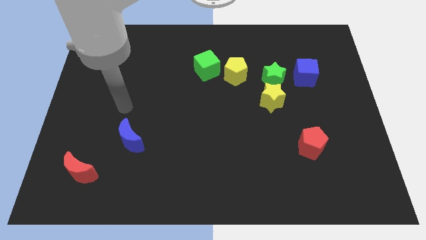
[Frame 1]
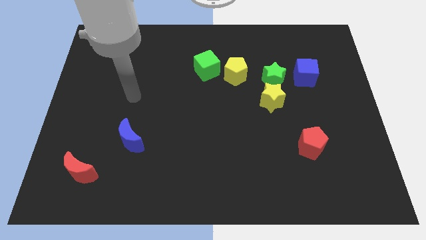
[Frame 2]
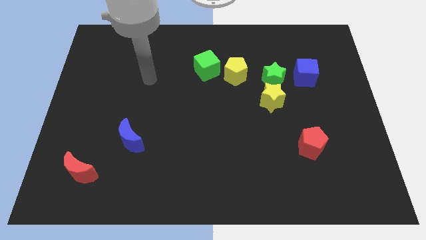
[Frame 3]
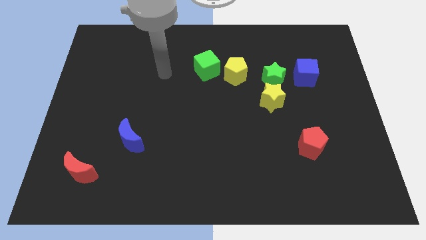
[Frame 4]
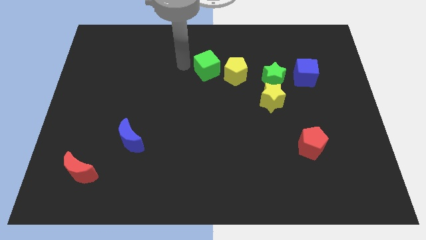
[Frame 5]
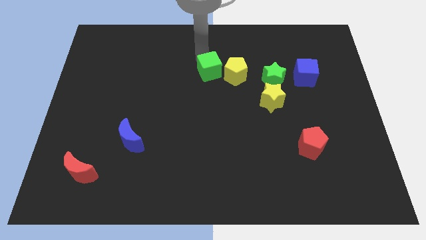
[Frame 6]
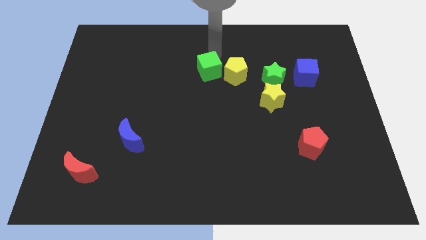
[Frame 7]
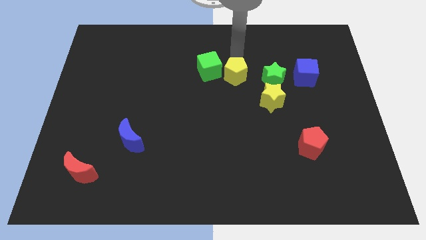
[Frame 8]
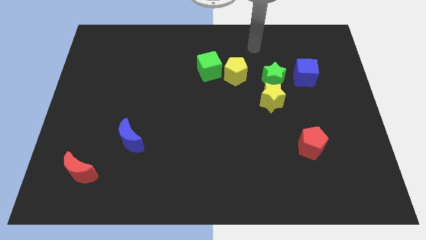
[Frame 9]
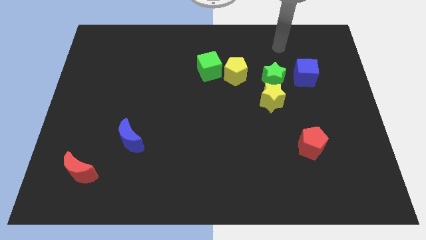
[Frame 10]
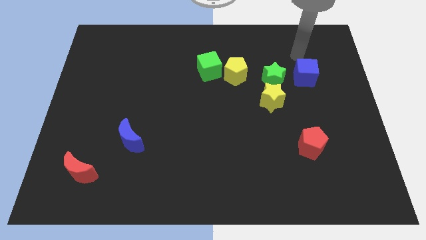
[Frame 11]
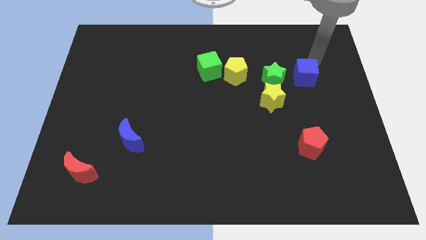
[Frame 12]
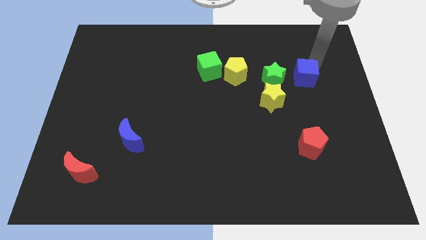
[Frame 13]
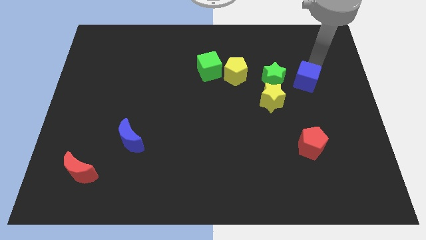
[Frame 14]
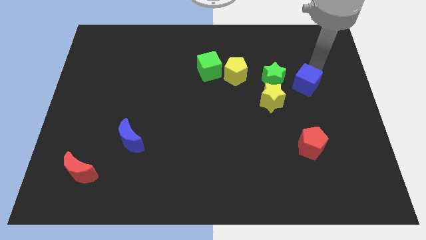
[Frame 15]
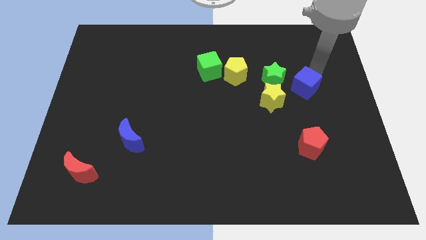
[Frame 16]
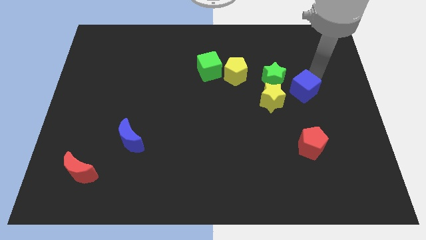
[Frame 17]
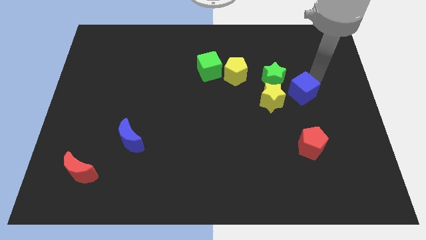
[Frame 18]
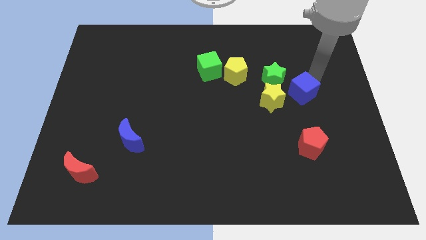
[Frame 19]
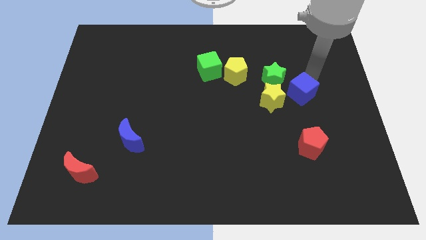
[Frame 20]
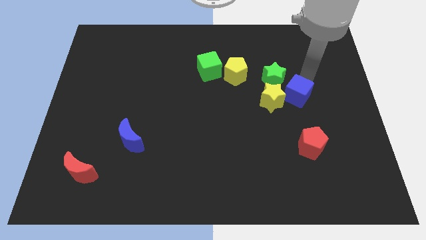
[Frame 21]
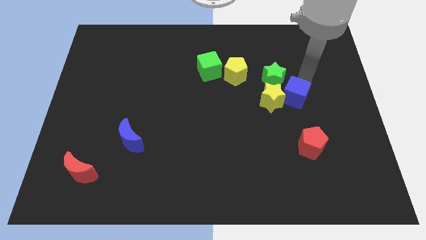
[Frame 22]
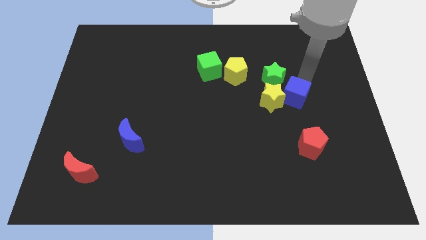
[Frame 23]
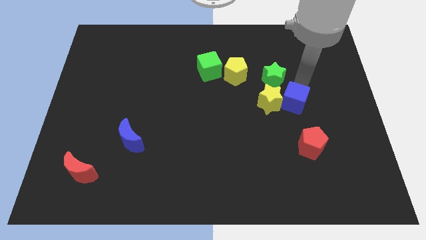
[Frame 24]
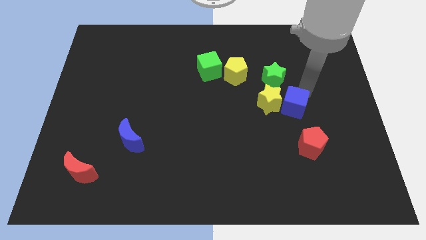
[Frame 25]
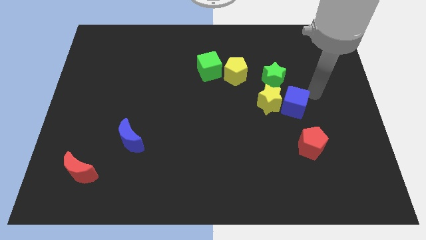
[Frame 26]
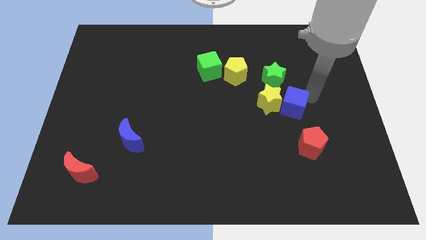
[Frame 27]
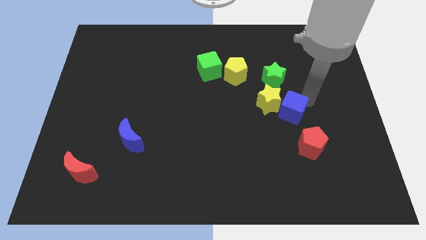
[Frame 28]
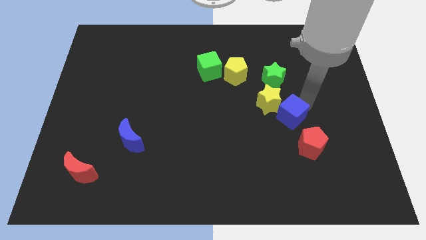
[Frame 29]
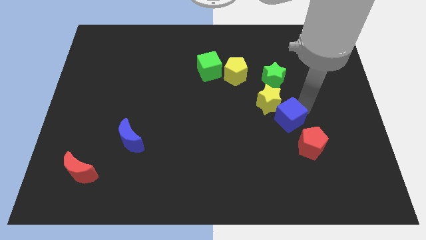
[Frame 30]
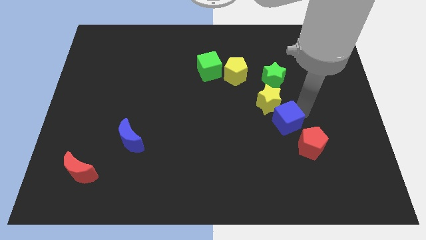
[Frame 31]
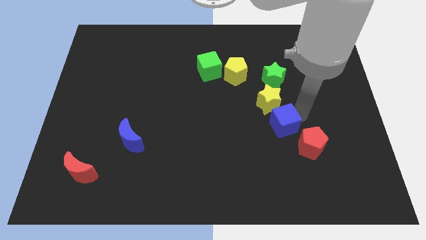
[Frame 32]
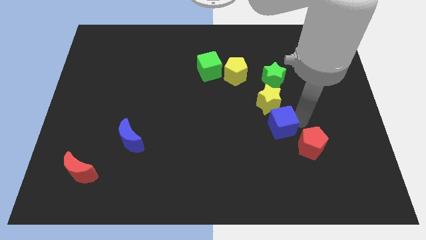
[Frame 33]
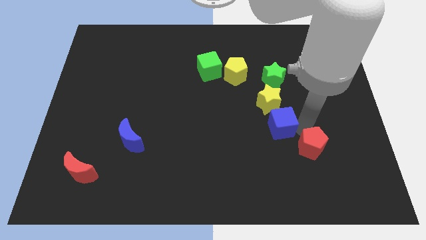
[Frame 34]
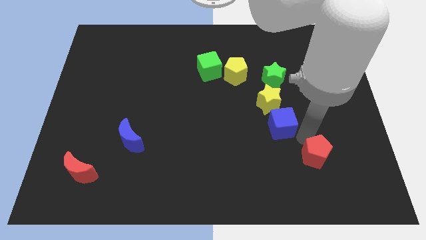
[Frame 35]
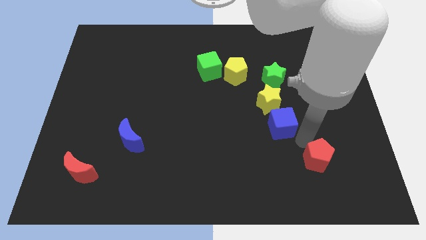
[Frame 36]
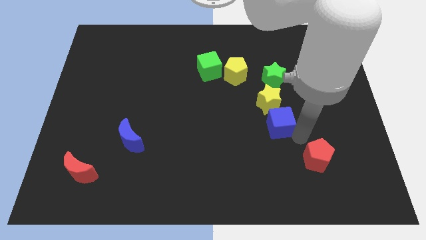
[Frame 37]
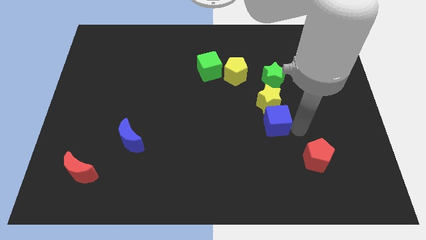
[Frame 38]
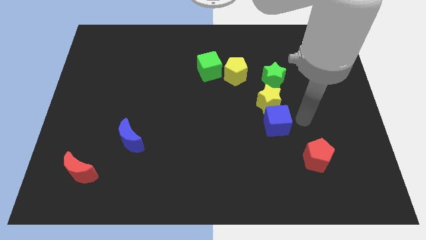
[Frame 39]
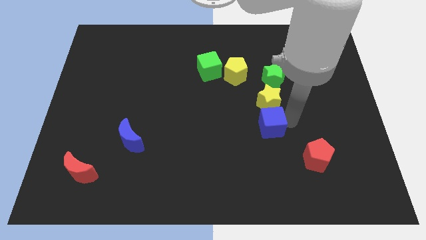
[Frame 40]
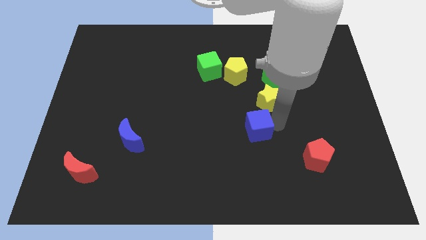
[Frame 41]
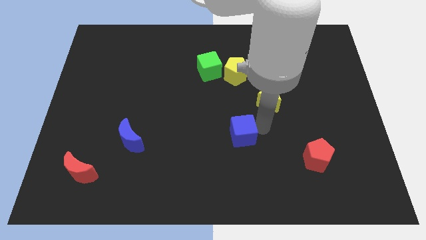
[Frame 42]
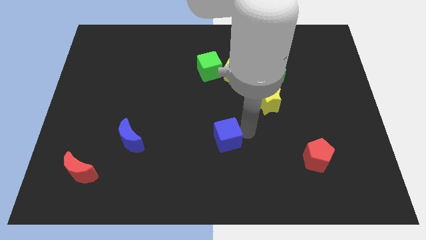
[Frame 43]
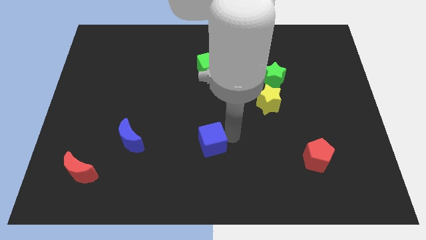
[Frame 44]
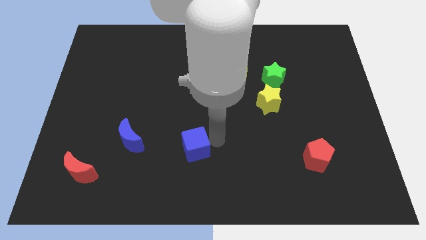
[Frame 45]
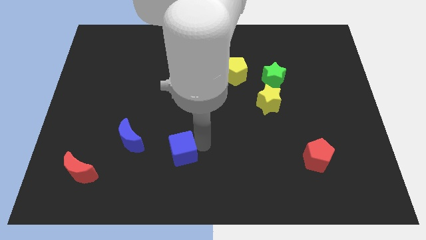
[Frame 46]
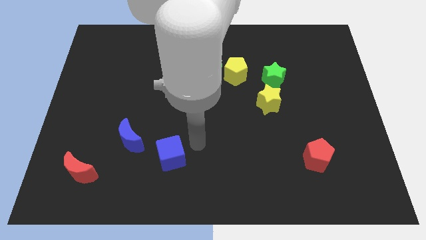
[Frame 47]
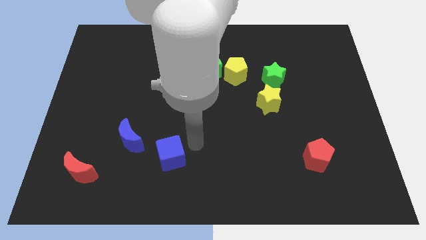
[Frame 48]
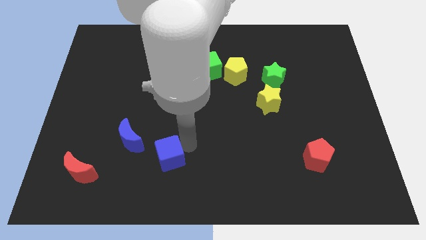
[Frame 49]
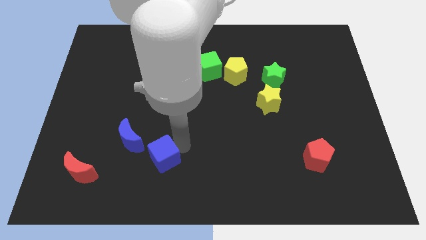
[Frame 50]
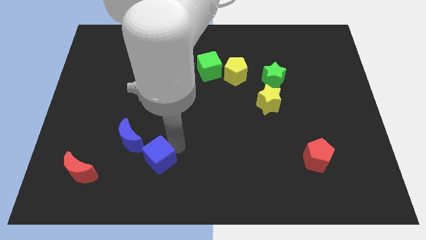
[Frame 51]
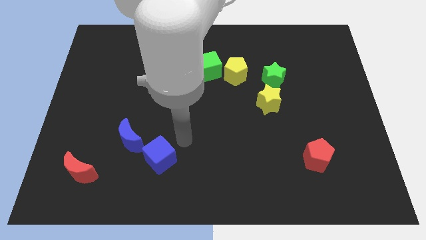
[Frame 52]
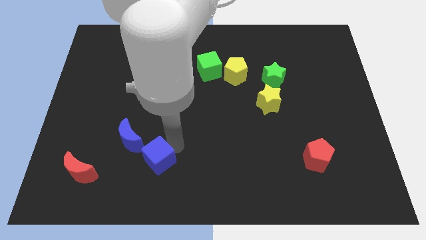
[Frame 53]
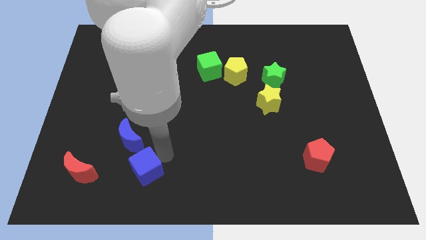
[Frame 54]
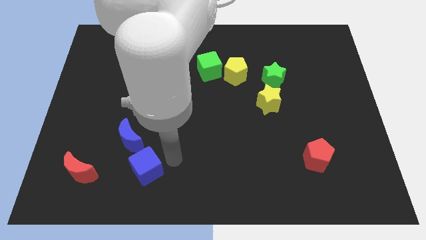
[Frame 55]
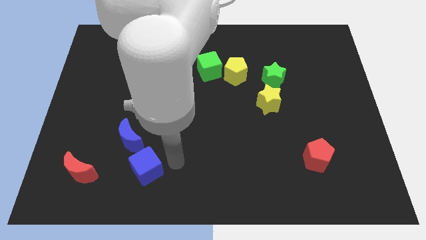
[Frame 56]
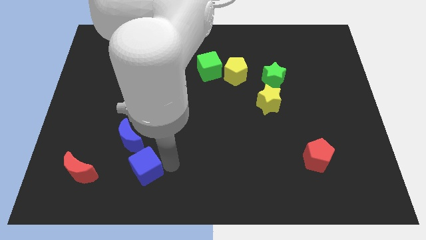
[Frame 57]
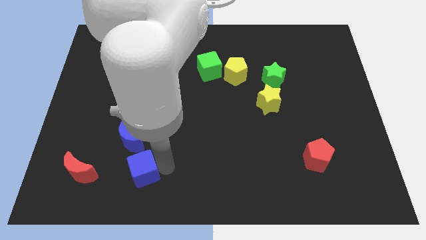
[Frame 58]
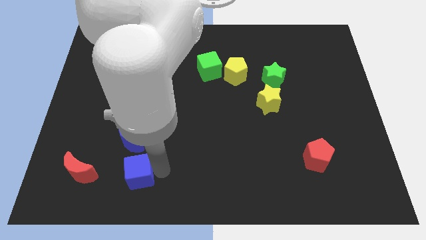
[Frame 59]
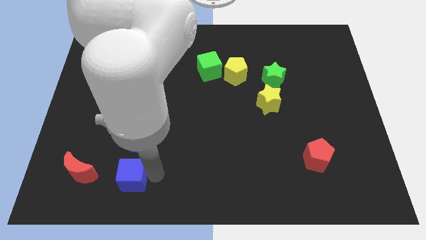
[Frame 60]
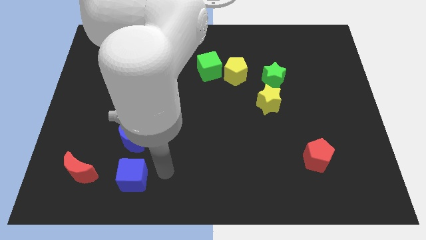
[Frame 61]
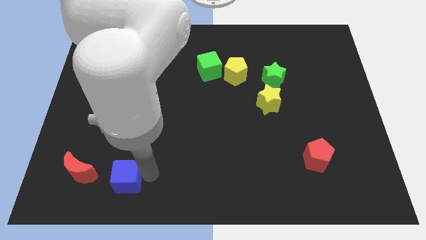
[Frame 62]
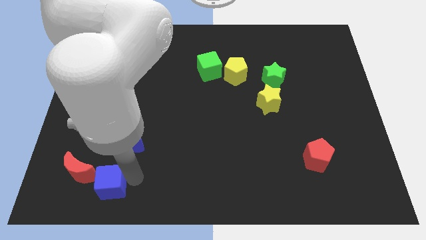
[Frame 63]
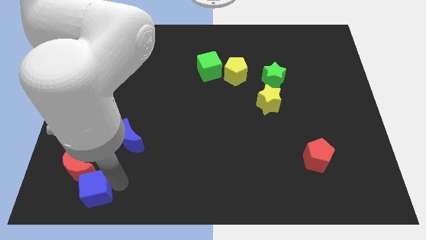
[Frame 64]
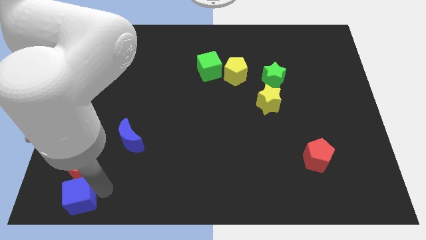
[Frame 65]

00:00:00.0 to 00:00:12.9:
push the blue cube to the bottom left of the board

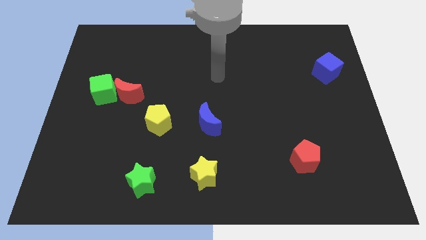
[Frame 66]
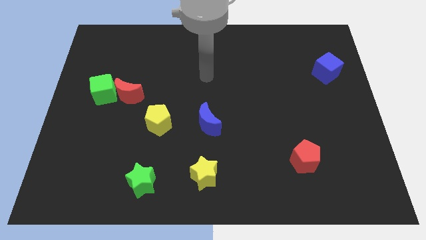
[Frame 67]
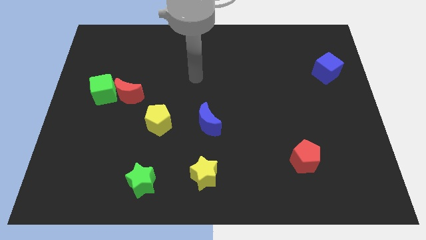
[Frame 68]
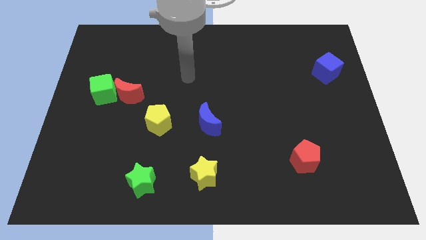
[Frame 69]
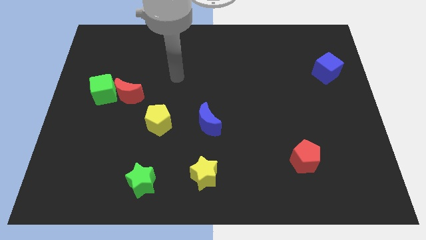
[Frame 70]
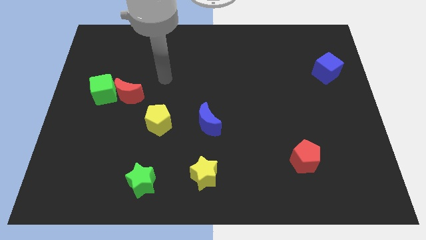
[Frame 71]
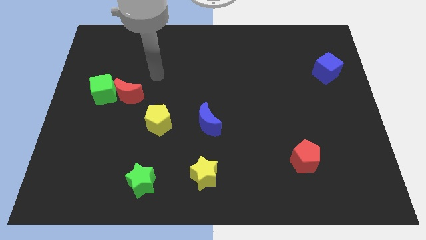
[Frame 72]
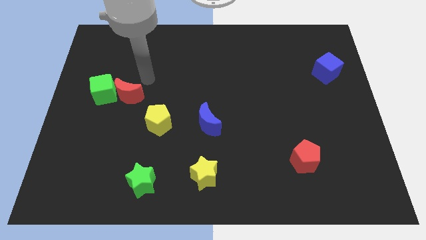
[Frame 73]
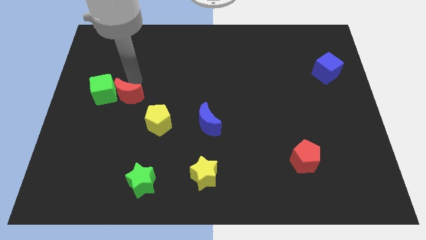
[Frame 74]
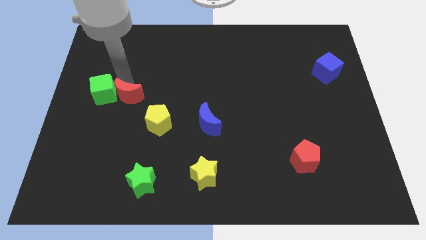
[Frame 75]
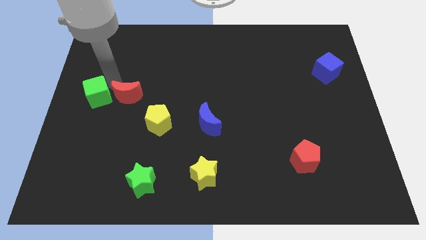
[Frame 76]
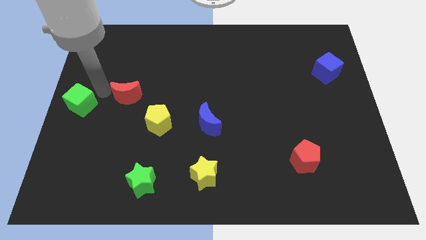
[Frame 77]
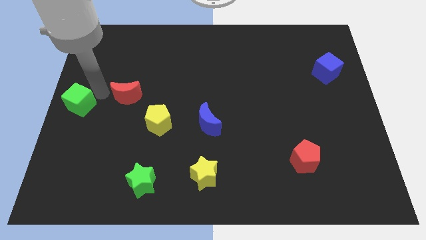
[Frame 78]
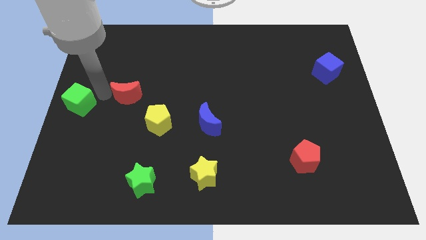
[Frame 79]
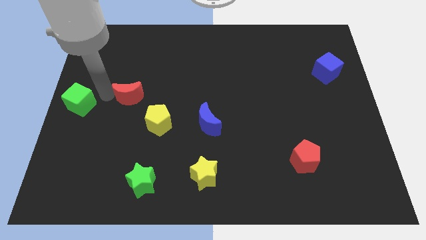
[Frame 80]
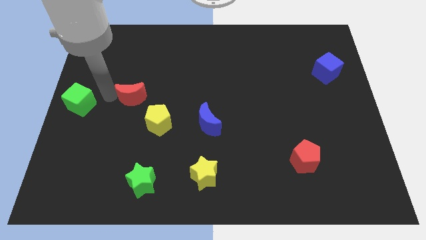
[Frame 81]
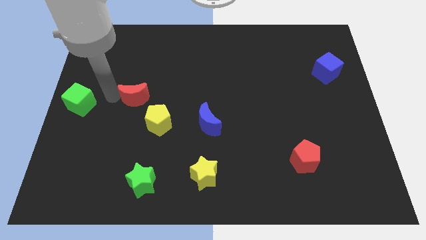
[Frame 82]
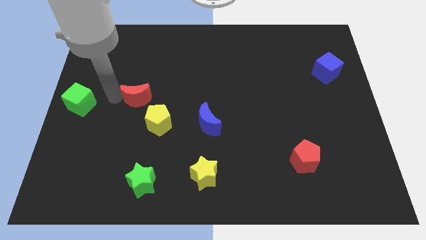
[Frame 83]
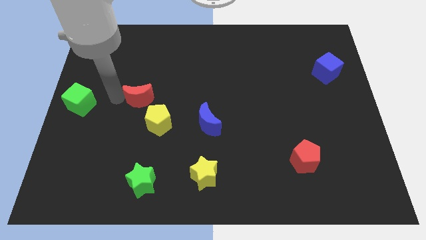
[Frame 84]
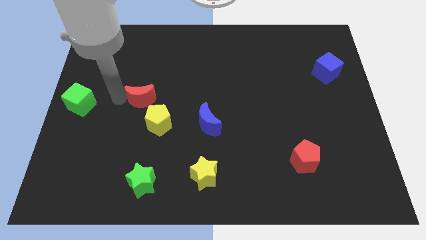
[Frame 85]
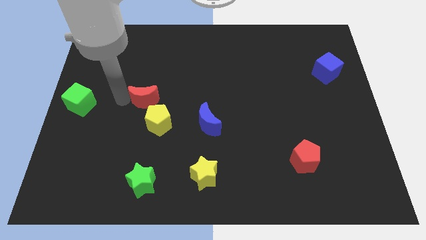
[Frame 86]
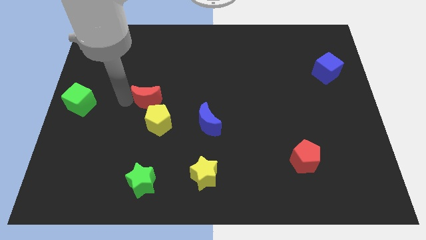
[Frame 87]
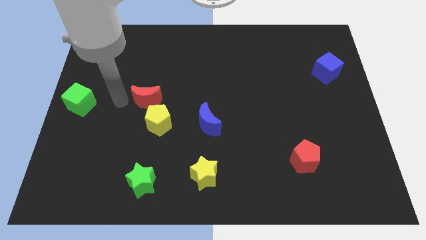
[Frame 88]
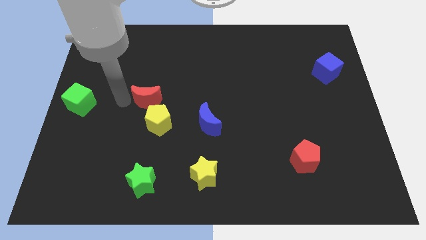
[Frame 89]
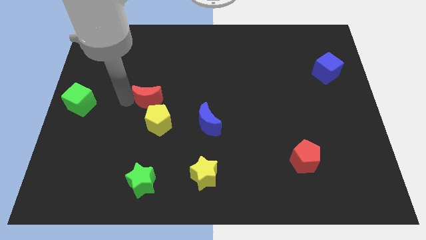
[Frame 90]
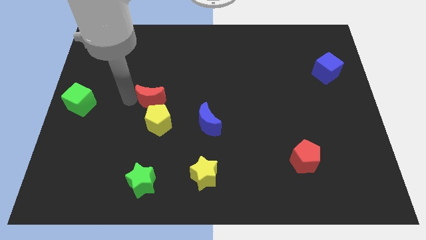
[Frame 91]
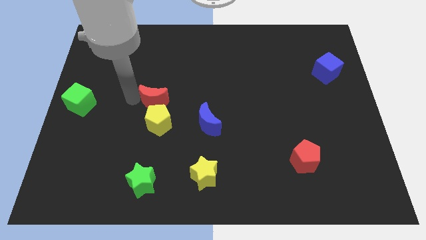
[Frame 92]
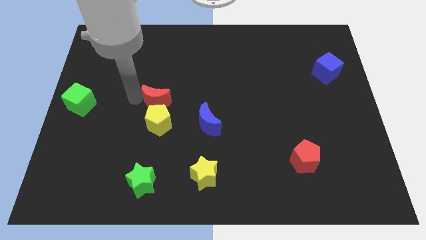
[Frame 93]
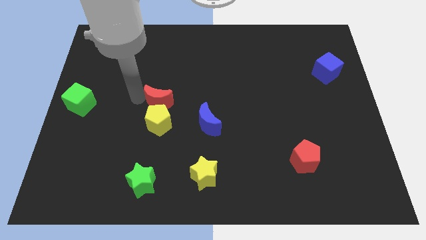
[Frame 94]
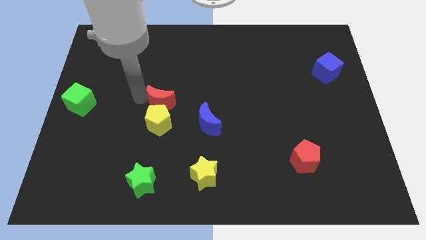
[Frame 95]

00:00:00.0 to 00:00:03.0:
push the red moon to the middle of the board
